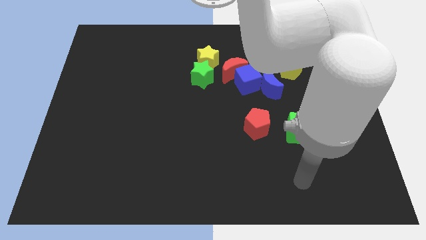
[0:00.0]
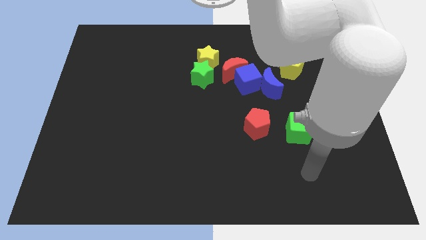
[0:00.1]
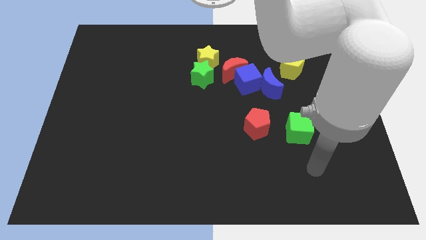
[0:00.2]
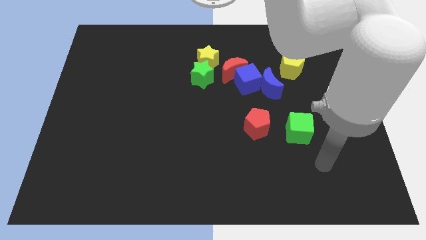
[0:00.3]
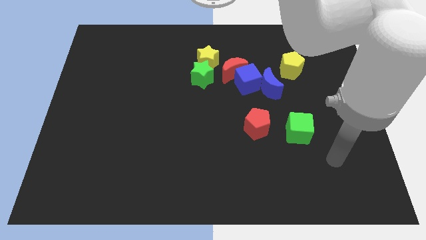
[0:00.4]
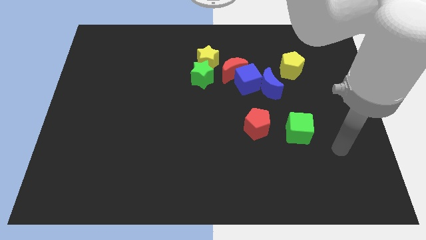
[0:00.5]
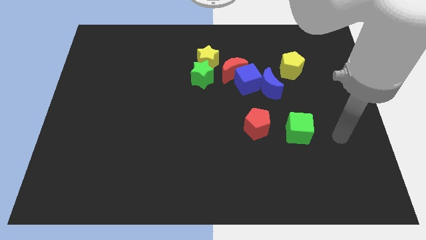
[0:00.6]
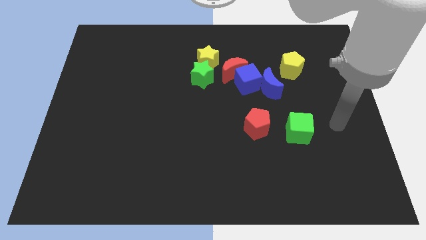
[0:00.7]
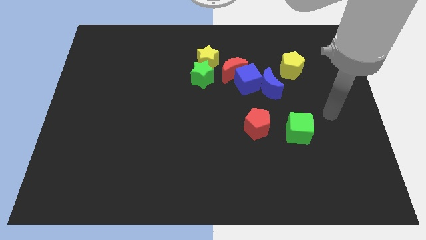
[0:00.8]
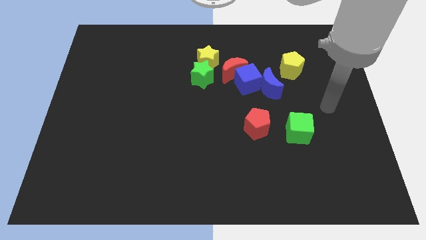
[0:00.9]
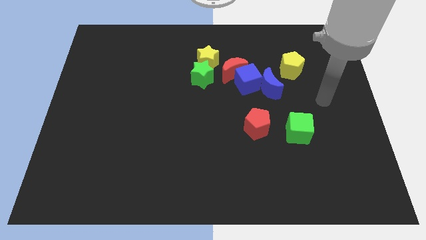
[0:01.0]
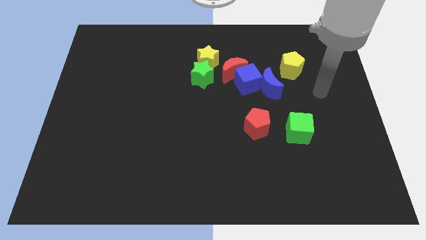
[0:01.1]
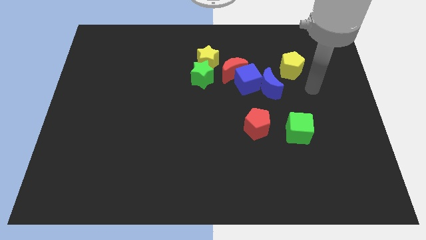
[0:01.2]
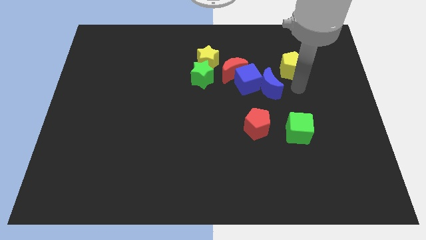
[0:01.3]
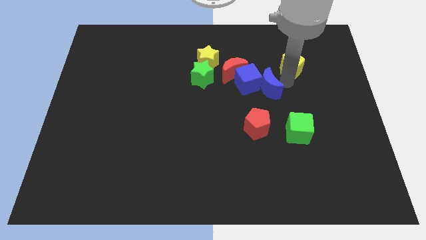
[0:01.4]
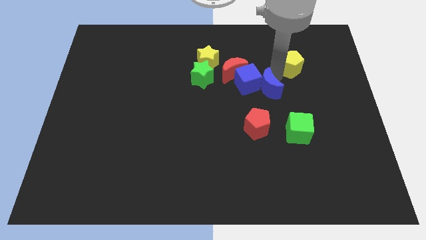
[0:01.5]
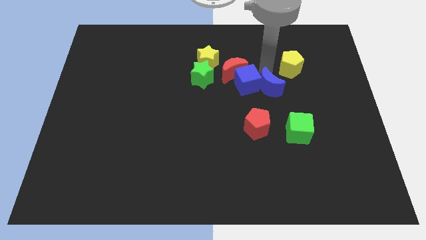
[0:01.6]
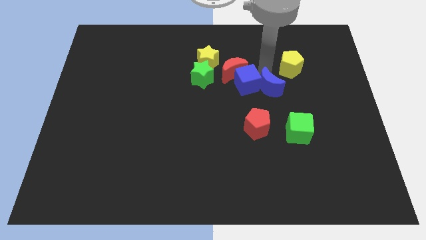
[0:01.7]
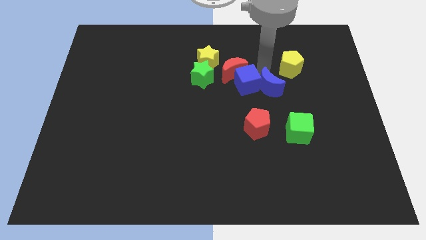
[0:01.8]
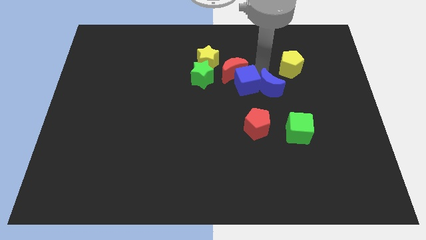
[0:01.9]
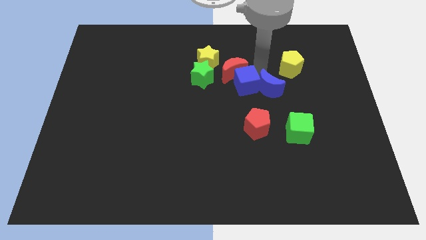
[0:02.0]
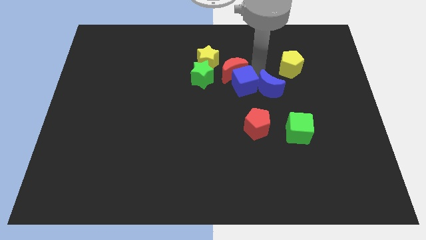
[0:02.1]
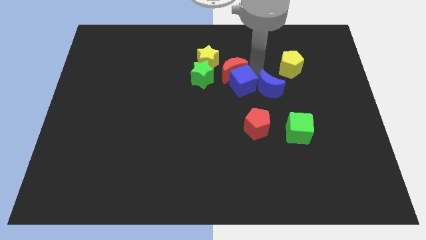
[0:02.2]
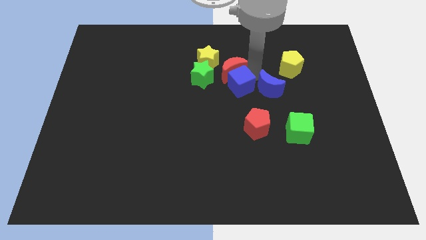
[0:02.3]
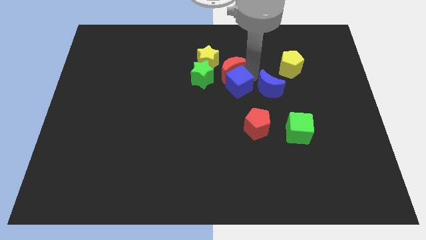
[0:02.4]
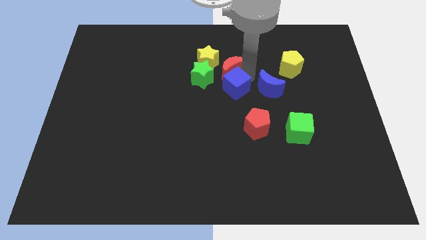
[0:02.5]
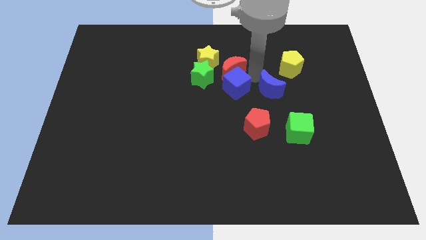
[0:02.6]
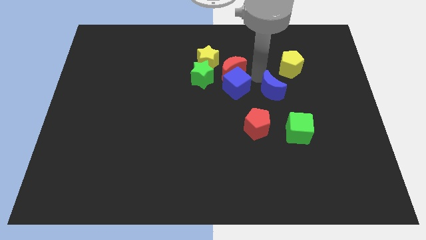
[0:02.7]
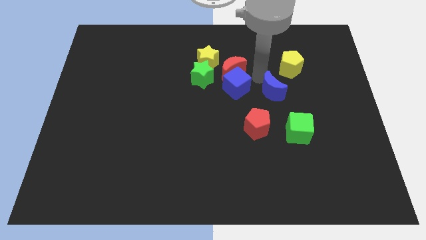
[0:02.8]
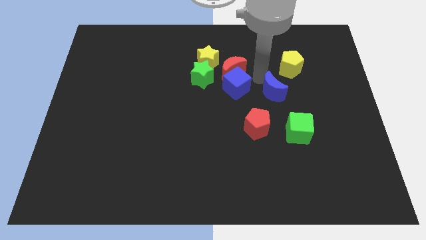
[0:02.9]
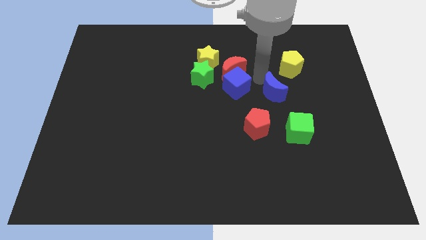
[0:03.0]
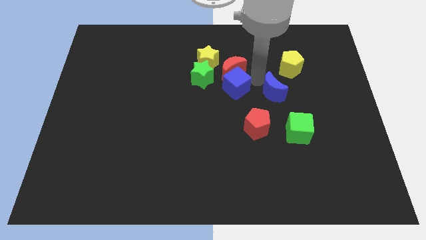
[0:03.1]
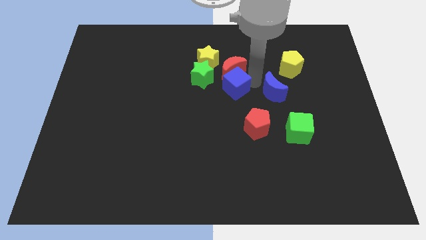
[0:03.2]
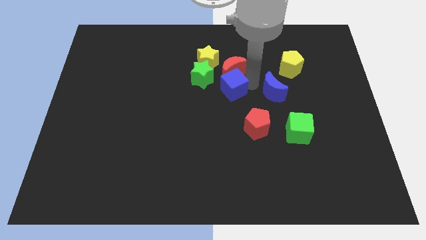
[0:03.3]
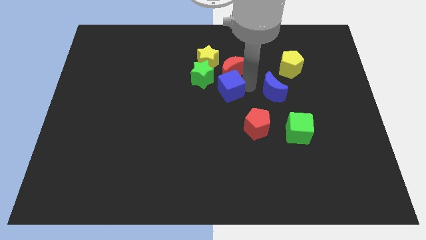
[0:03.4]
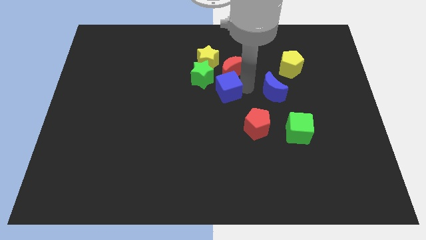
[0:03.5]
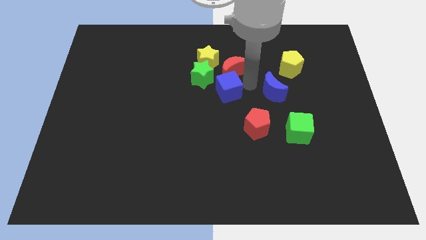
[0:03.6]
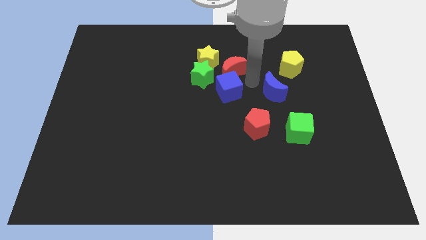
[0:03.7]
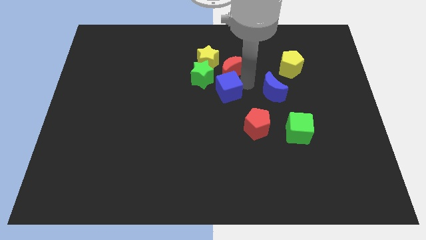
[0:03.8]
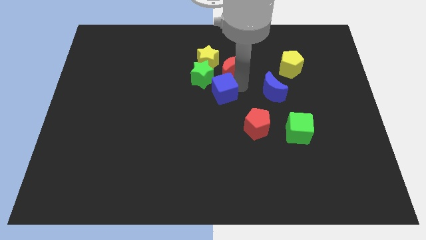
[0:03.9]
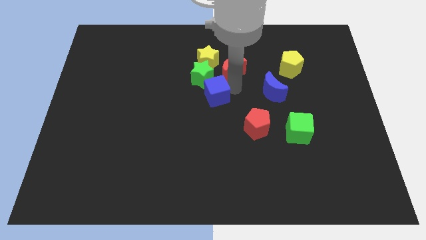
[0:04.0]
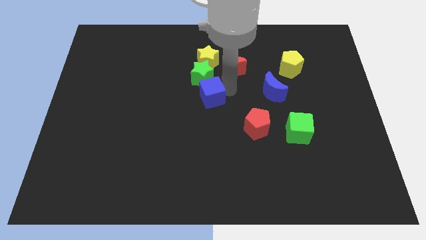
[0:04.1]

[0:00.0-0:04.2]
pull the blue cube apart from the red moon and blue moon

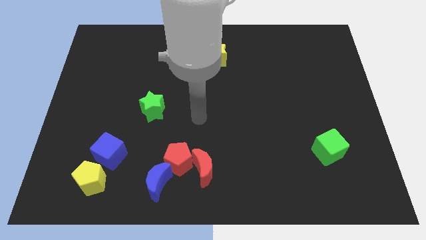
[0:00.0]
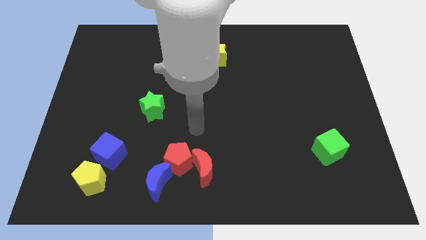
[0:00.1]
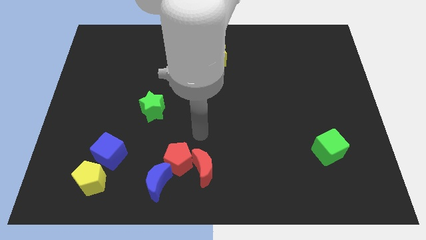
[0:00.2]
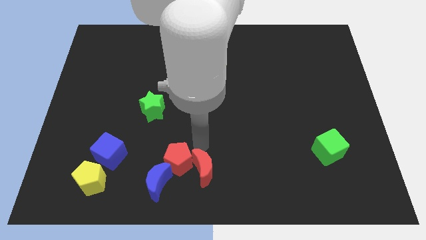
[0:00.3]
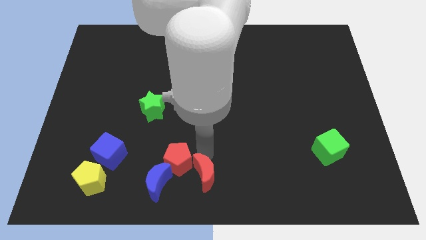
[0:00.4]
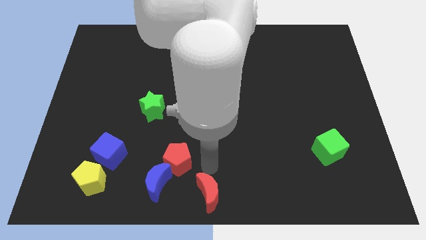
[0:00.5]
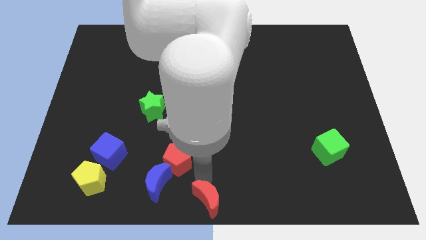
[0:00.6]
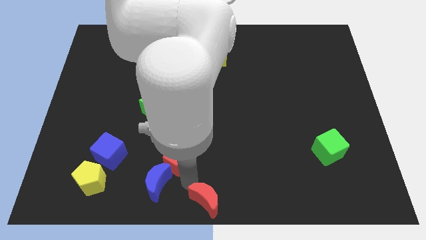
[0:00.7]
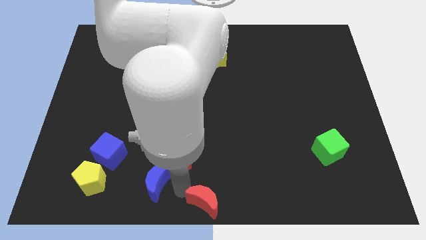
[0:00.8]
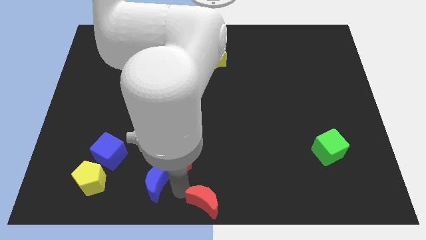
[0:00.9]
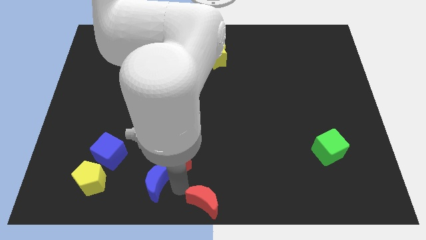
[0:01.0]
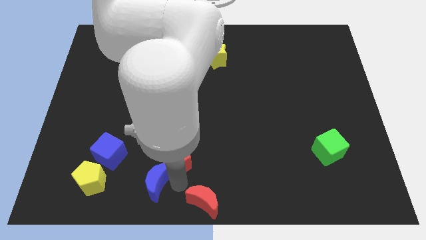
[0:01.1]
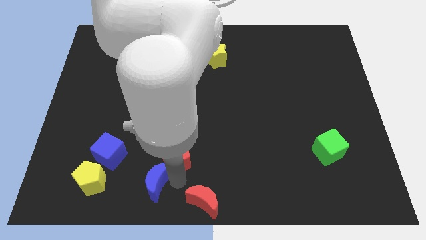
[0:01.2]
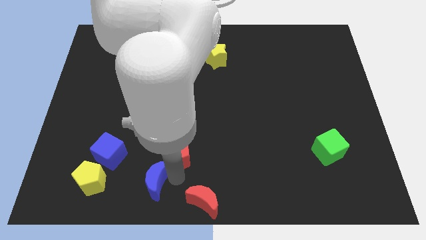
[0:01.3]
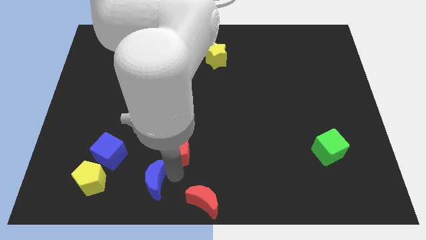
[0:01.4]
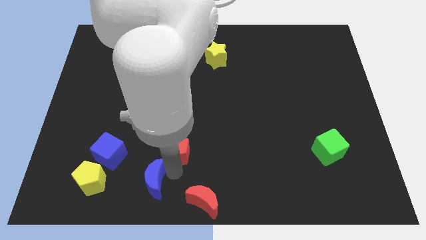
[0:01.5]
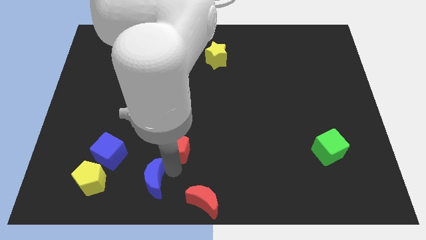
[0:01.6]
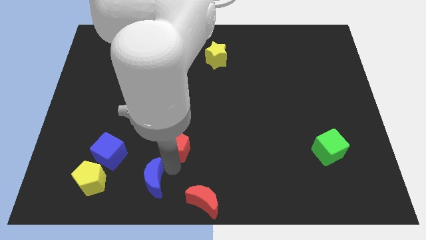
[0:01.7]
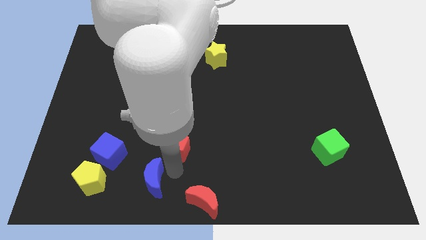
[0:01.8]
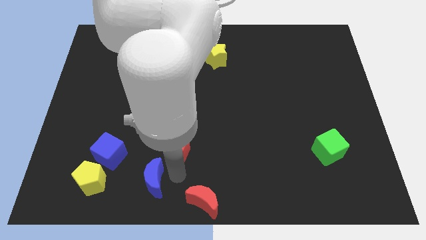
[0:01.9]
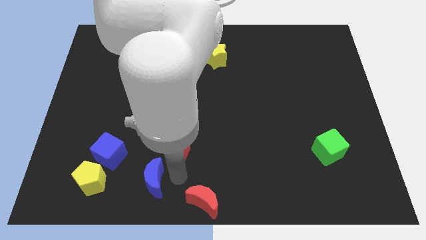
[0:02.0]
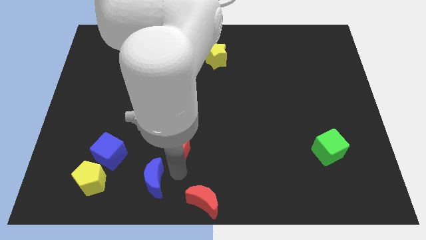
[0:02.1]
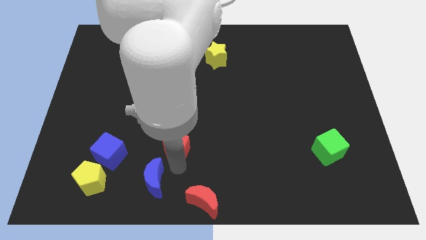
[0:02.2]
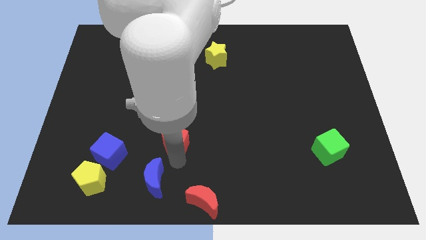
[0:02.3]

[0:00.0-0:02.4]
move the red pentagon away from the red moon and blue moon

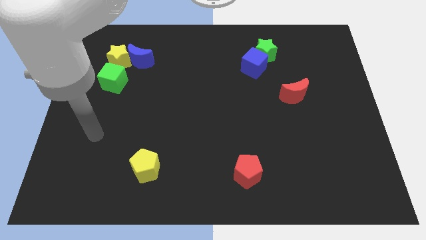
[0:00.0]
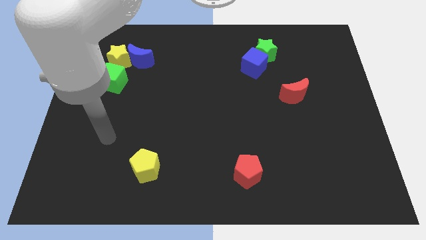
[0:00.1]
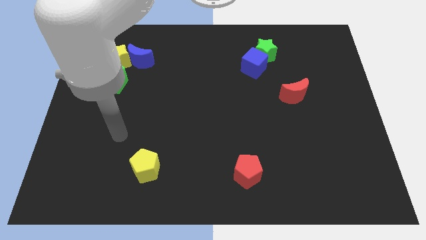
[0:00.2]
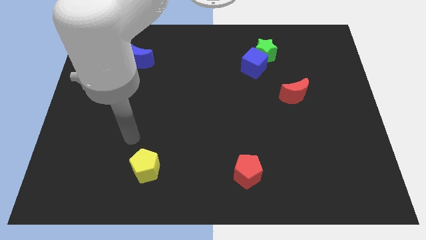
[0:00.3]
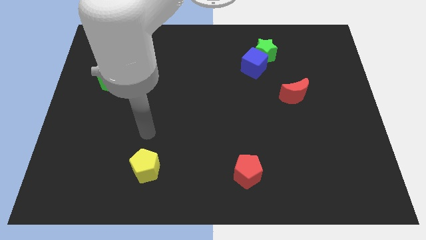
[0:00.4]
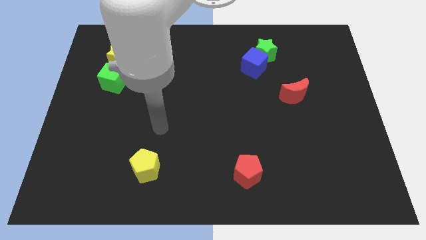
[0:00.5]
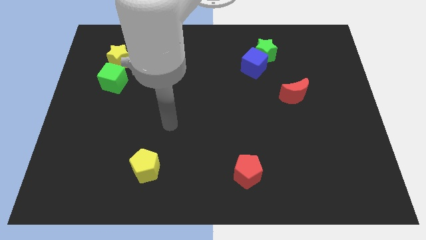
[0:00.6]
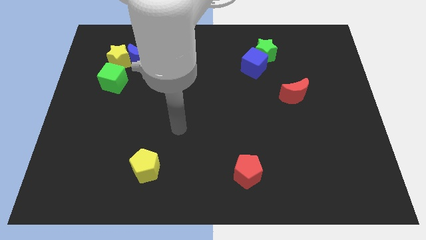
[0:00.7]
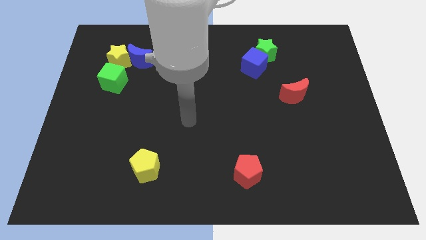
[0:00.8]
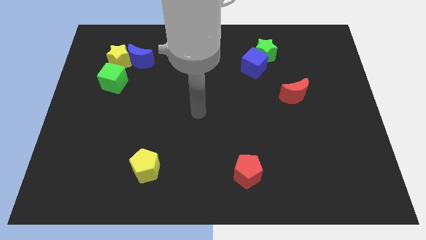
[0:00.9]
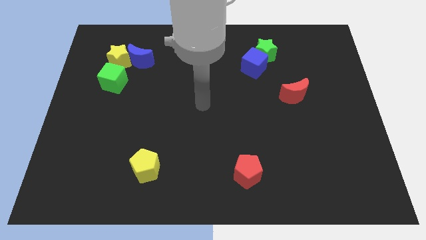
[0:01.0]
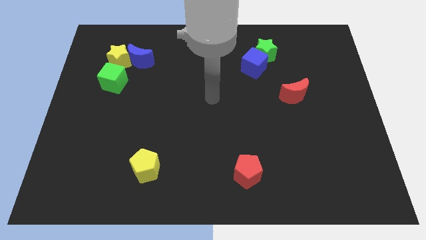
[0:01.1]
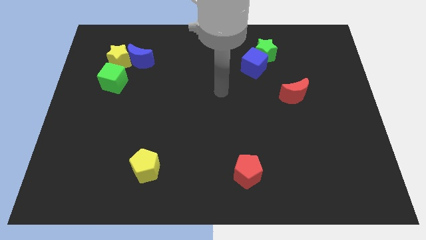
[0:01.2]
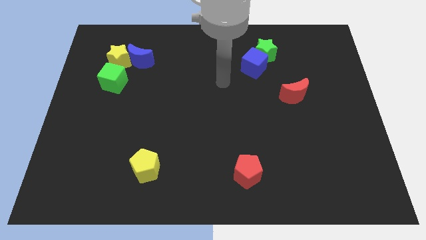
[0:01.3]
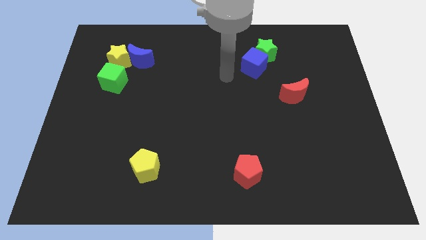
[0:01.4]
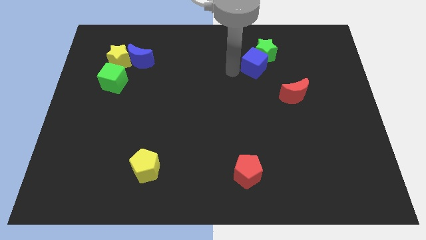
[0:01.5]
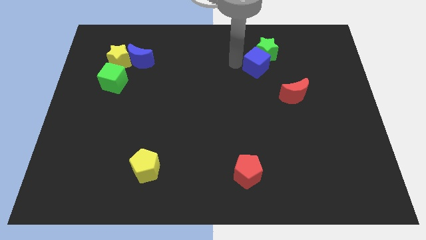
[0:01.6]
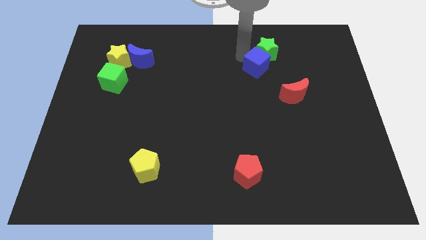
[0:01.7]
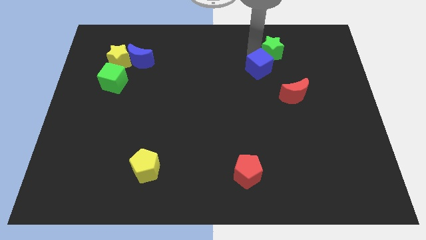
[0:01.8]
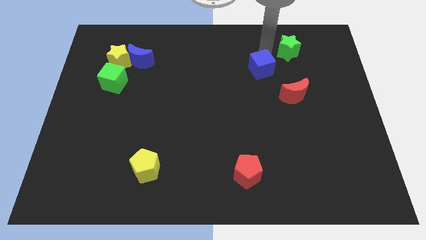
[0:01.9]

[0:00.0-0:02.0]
move the blue cube away from the green star

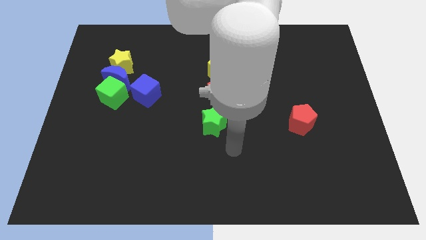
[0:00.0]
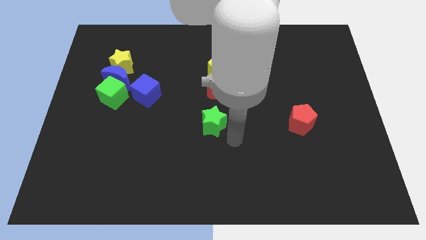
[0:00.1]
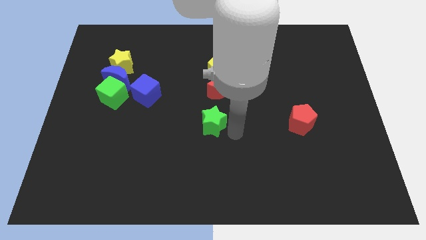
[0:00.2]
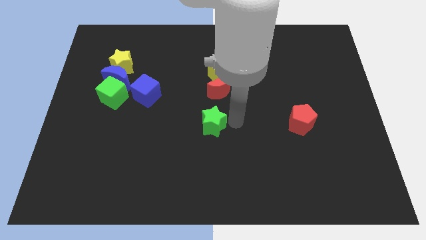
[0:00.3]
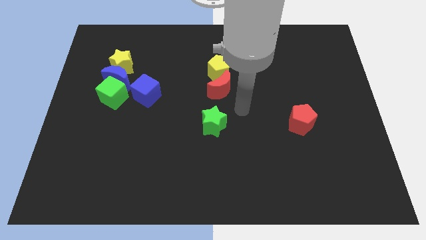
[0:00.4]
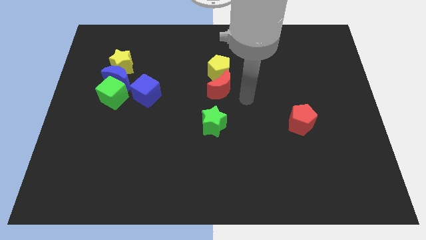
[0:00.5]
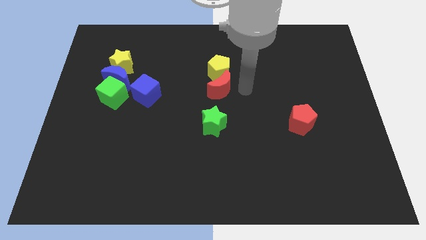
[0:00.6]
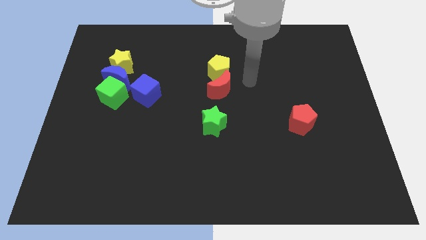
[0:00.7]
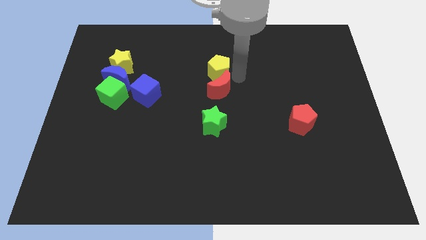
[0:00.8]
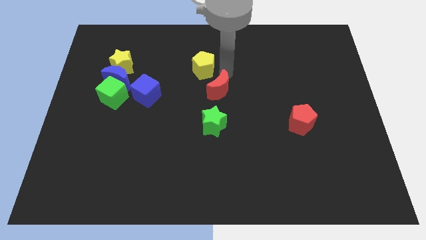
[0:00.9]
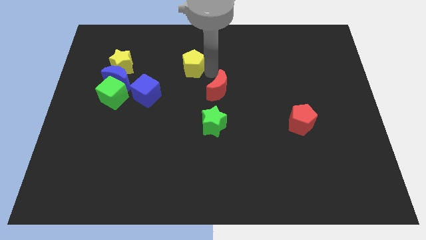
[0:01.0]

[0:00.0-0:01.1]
move the red moon away from the yellow pentagon
